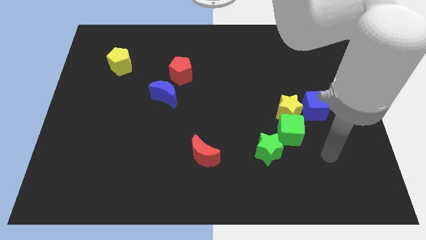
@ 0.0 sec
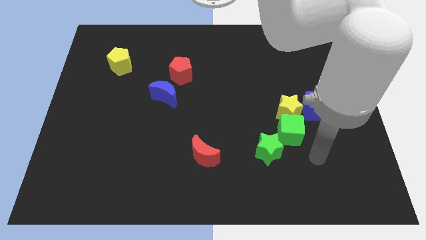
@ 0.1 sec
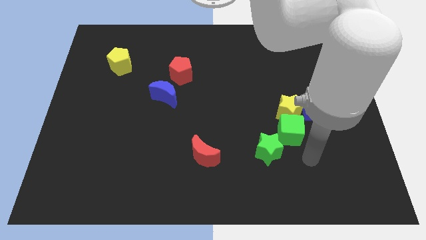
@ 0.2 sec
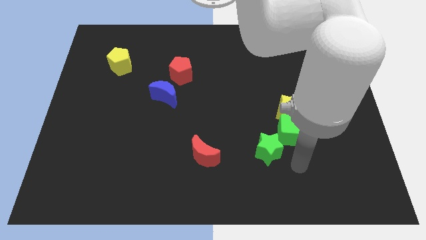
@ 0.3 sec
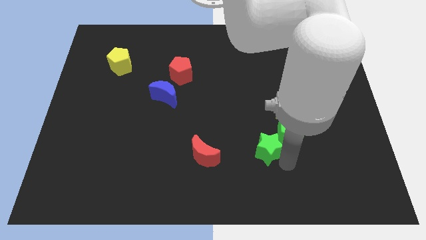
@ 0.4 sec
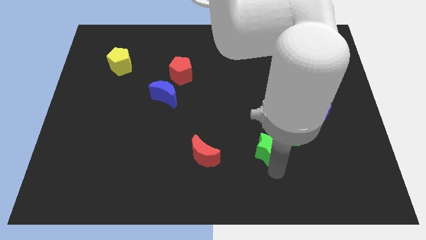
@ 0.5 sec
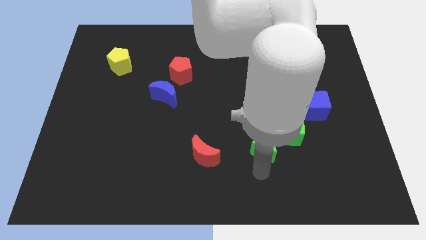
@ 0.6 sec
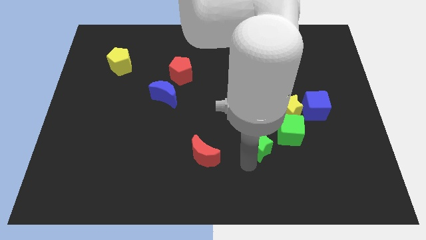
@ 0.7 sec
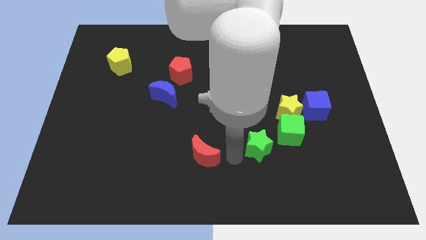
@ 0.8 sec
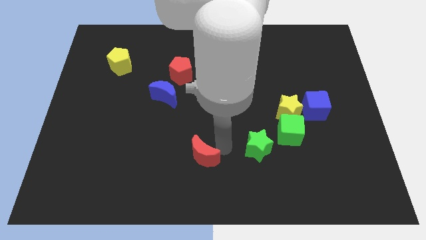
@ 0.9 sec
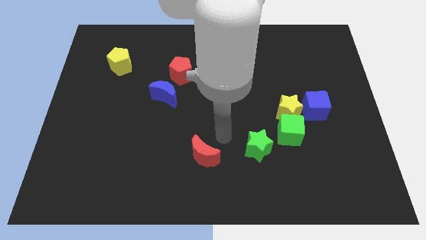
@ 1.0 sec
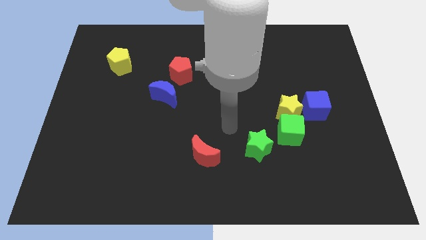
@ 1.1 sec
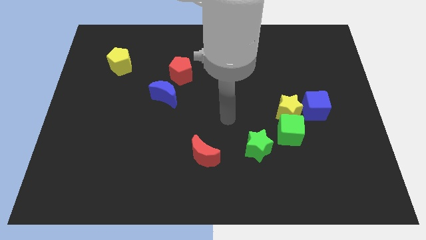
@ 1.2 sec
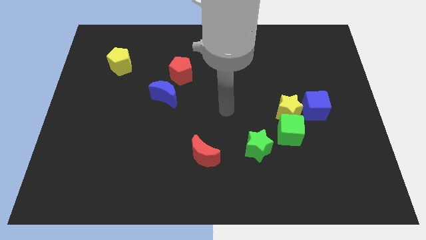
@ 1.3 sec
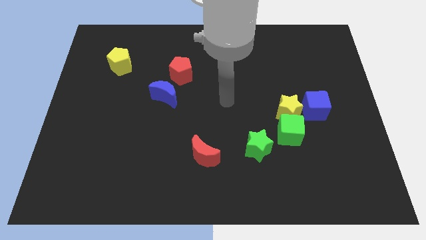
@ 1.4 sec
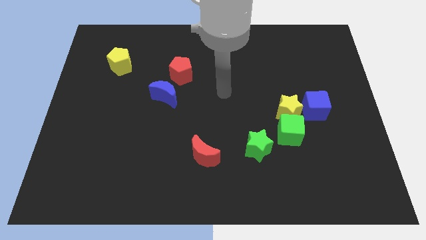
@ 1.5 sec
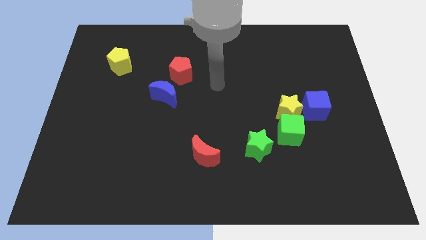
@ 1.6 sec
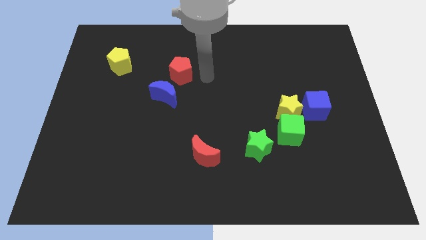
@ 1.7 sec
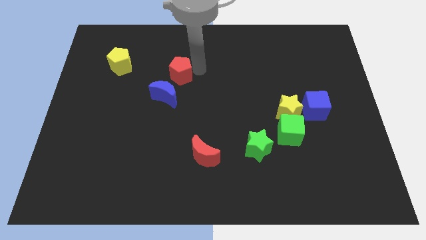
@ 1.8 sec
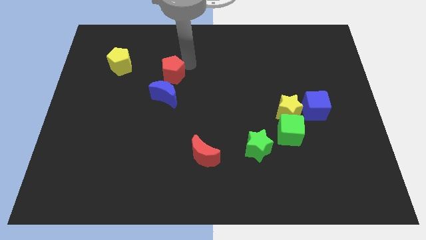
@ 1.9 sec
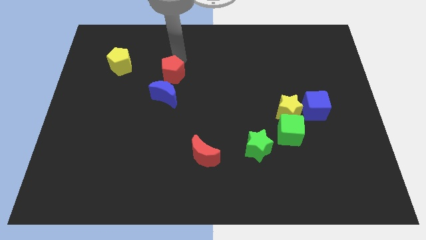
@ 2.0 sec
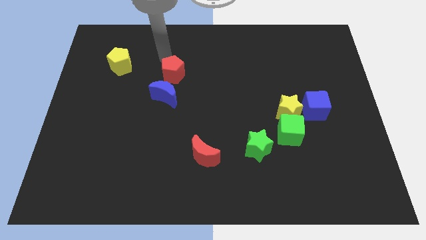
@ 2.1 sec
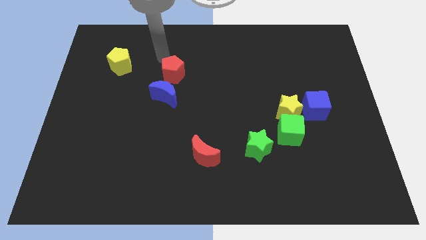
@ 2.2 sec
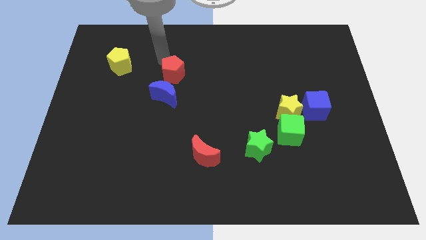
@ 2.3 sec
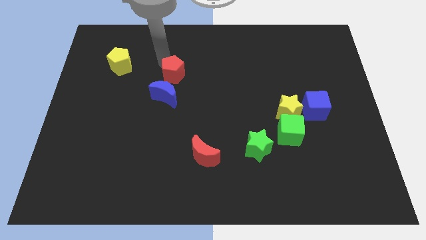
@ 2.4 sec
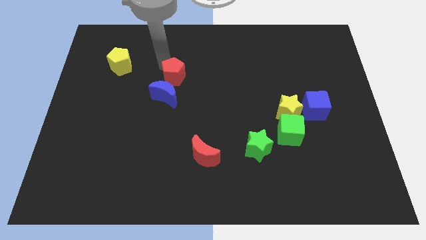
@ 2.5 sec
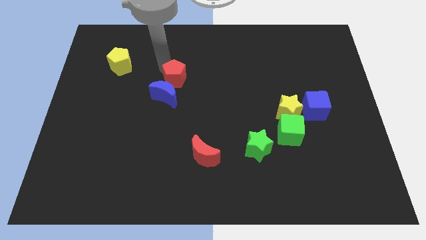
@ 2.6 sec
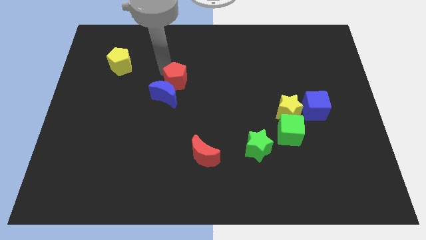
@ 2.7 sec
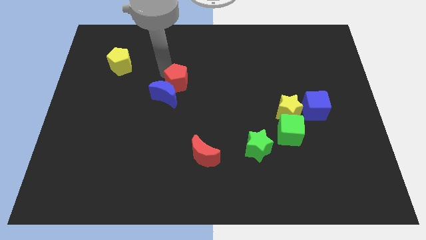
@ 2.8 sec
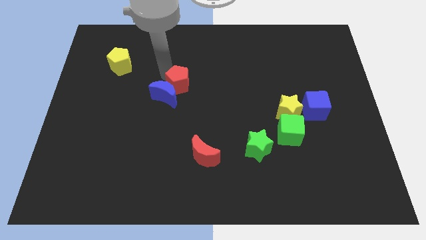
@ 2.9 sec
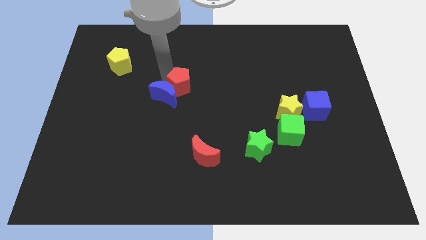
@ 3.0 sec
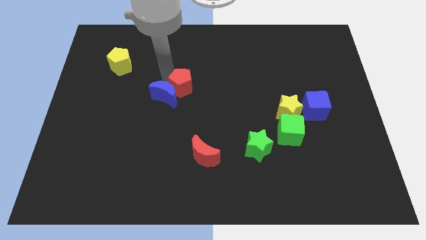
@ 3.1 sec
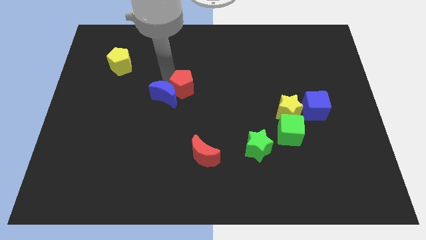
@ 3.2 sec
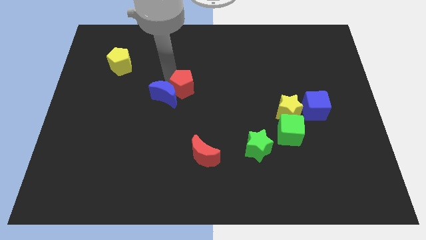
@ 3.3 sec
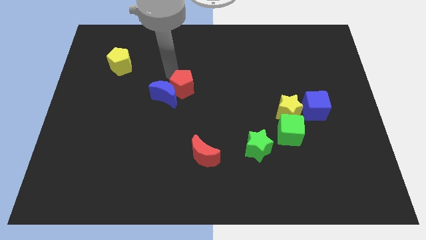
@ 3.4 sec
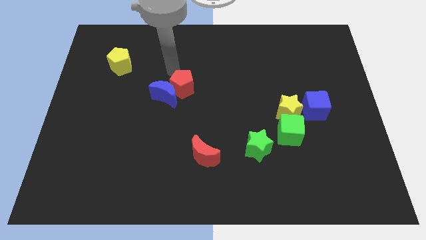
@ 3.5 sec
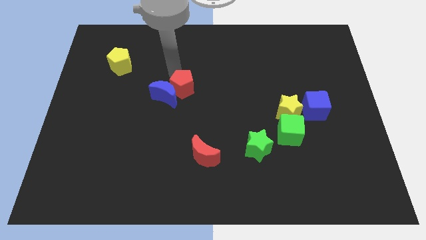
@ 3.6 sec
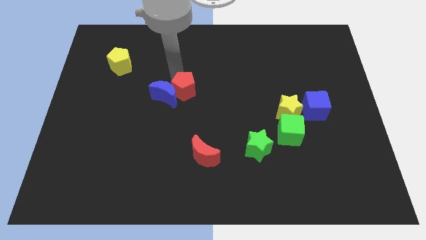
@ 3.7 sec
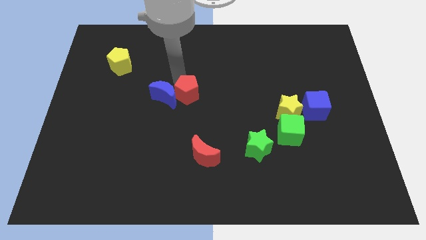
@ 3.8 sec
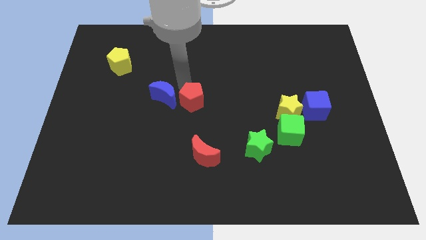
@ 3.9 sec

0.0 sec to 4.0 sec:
push the red pentagon down somewhat

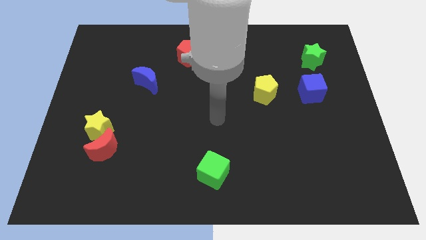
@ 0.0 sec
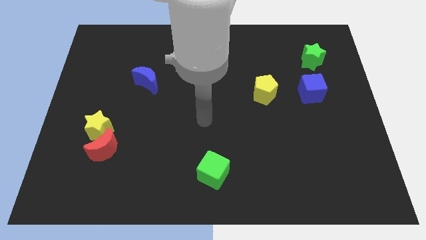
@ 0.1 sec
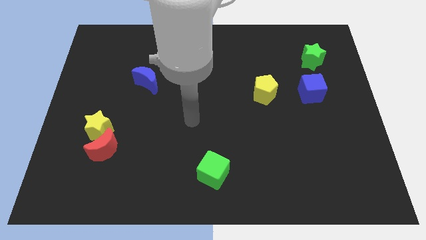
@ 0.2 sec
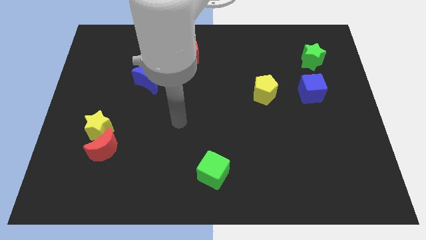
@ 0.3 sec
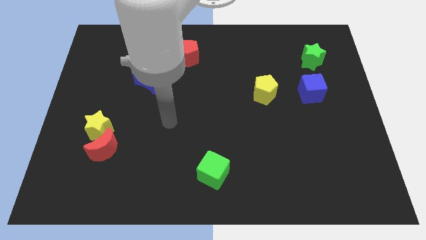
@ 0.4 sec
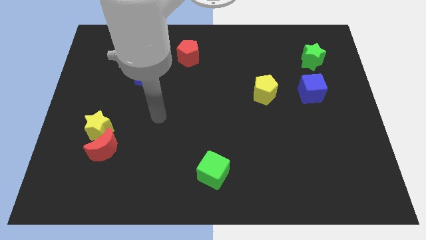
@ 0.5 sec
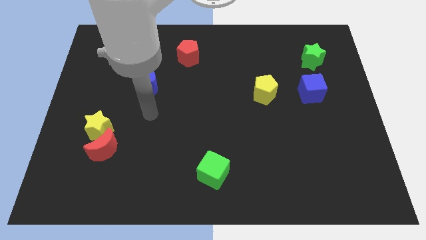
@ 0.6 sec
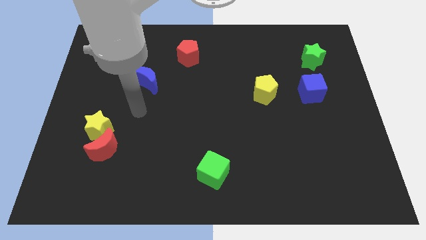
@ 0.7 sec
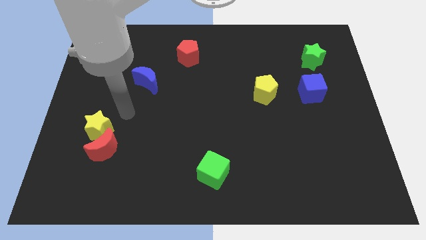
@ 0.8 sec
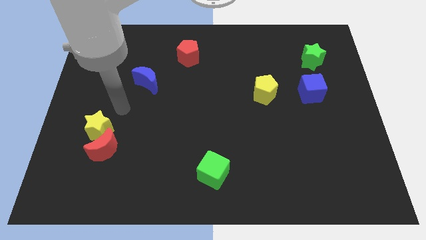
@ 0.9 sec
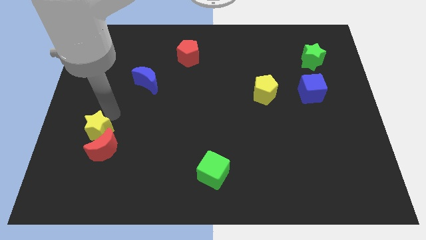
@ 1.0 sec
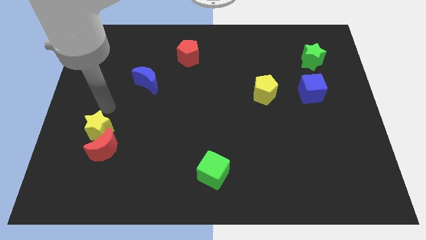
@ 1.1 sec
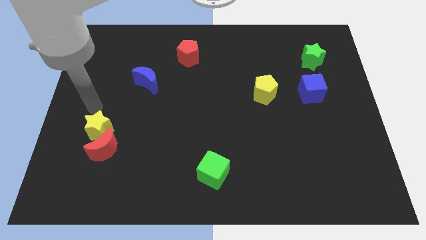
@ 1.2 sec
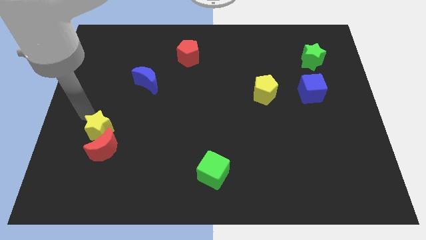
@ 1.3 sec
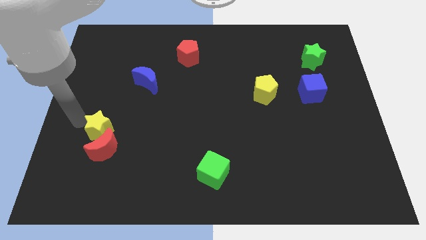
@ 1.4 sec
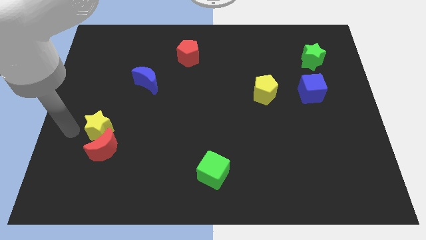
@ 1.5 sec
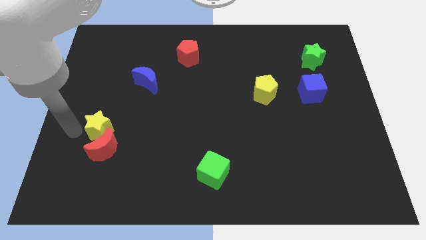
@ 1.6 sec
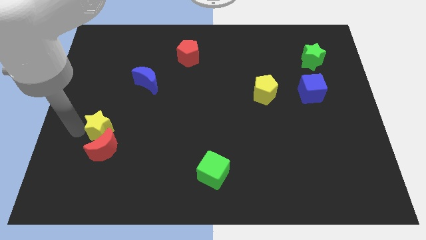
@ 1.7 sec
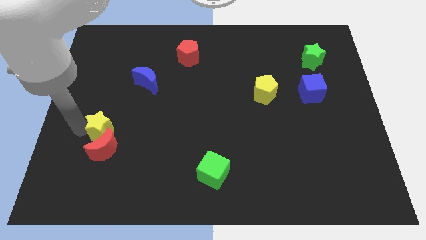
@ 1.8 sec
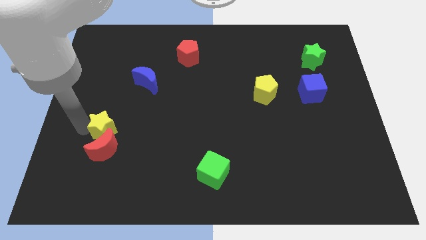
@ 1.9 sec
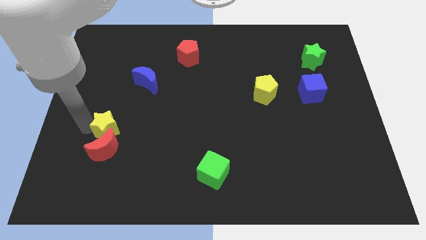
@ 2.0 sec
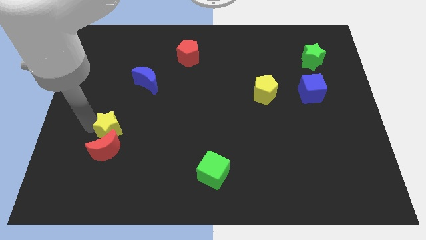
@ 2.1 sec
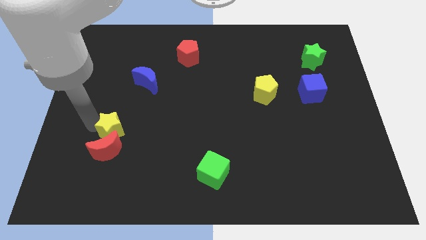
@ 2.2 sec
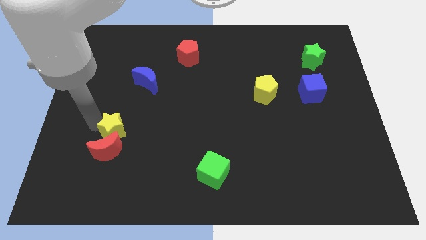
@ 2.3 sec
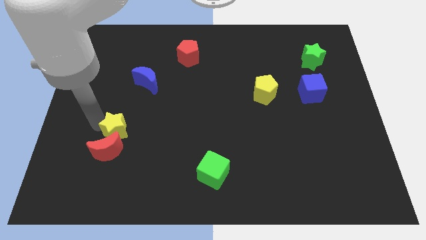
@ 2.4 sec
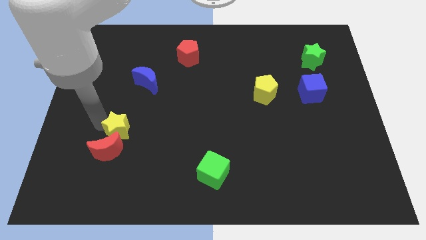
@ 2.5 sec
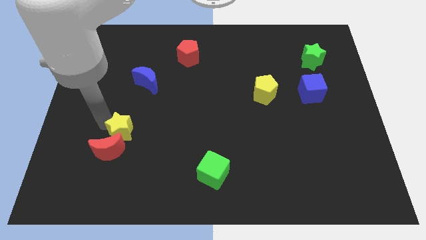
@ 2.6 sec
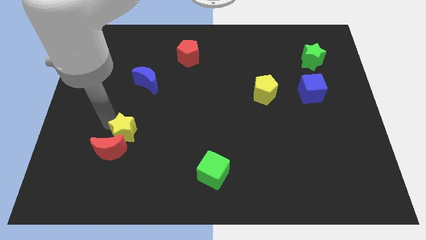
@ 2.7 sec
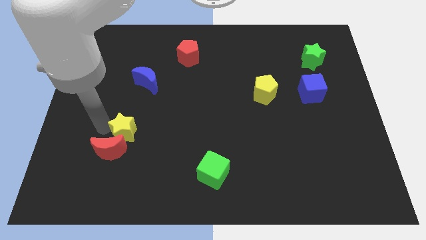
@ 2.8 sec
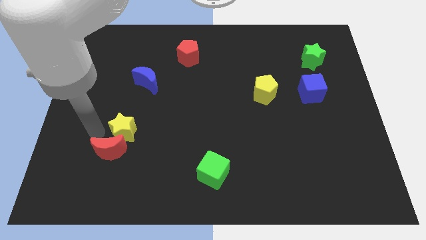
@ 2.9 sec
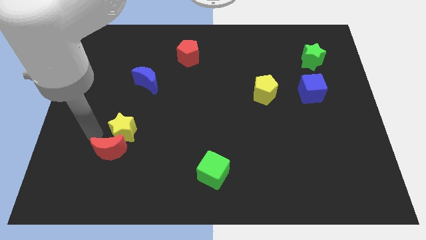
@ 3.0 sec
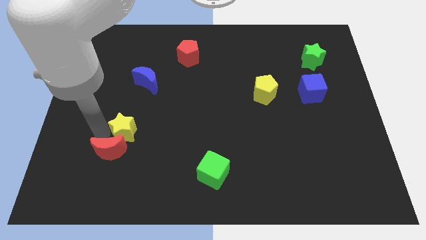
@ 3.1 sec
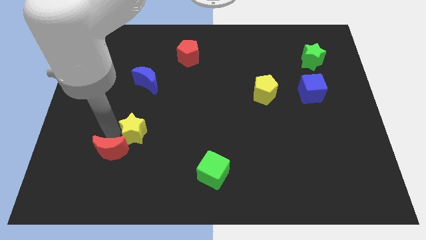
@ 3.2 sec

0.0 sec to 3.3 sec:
slightly push the yellow star to the right

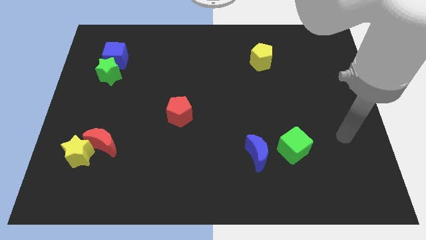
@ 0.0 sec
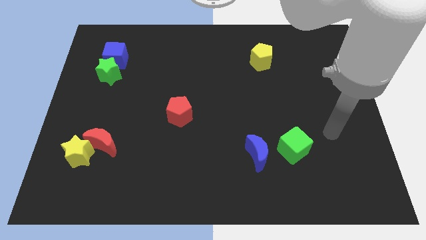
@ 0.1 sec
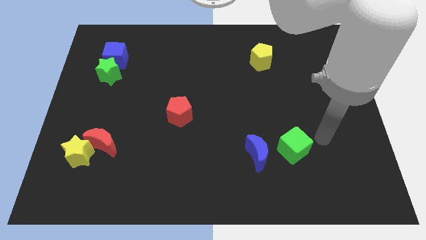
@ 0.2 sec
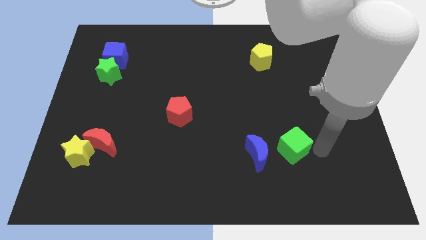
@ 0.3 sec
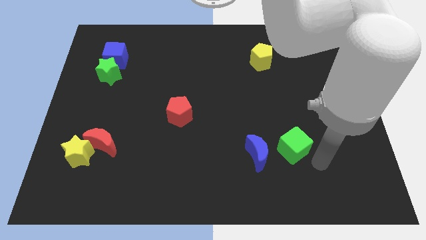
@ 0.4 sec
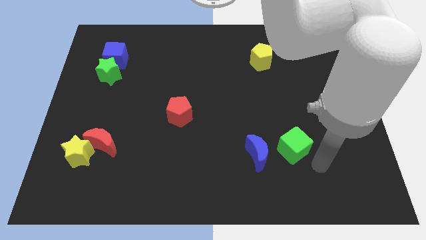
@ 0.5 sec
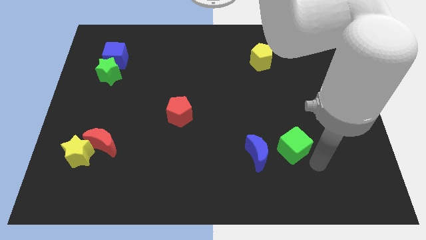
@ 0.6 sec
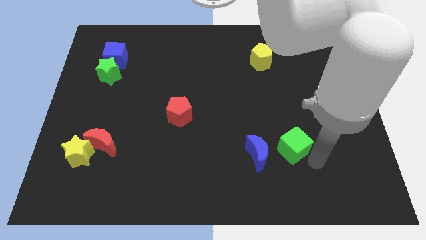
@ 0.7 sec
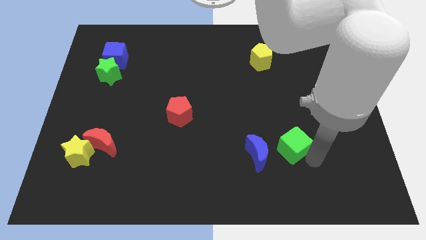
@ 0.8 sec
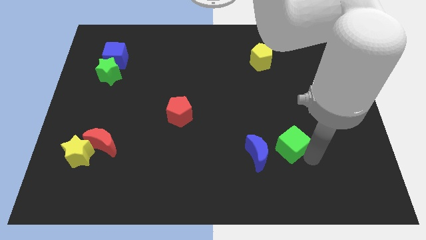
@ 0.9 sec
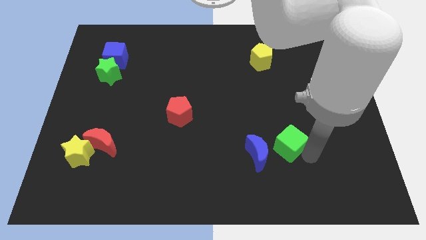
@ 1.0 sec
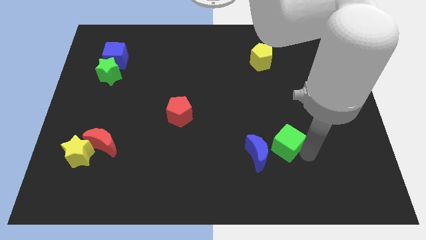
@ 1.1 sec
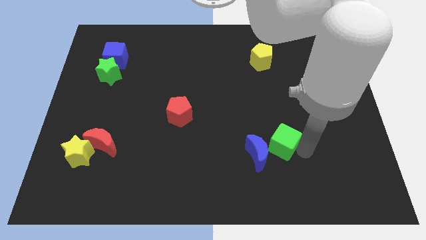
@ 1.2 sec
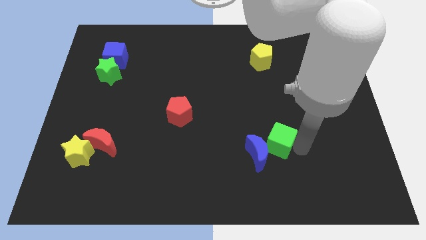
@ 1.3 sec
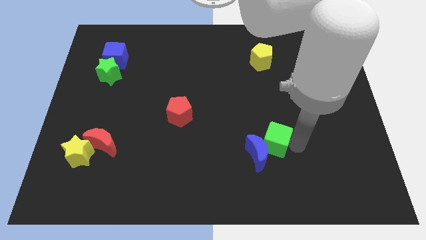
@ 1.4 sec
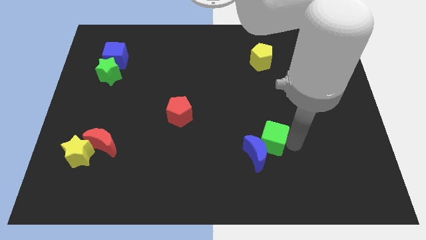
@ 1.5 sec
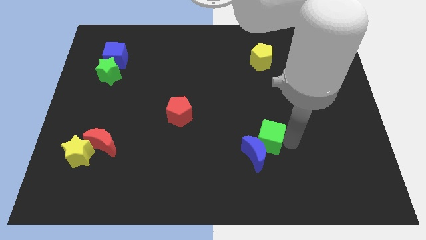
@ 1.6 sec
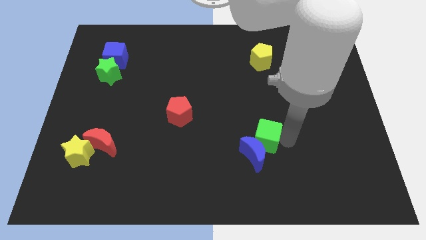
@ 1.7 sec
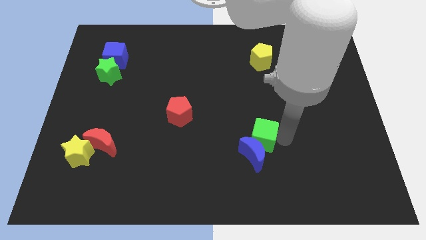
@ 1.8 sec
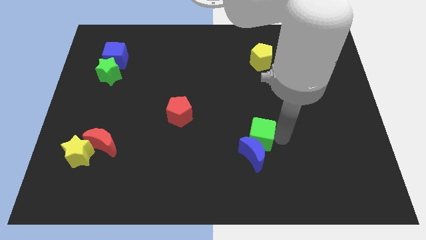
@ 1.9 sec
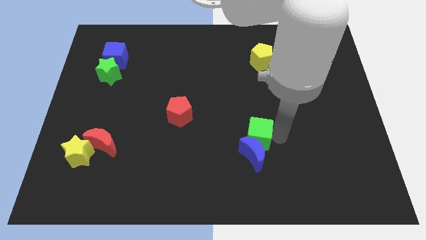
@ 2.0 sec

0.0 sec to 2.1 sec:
slightly move the green cube to the left
